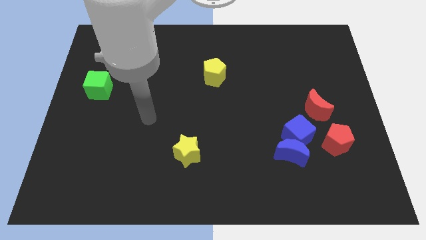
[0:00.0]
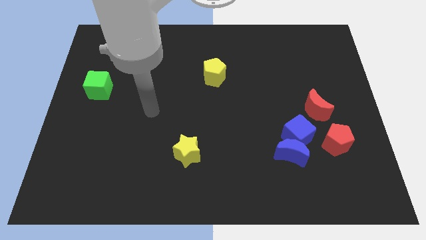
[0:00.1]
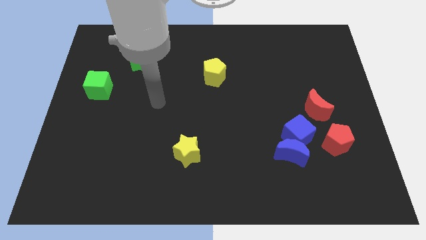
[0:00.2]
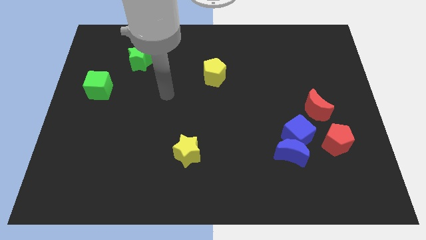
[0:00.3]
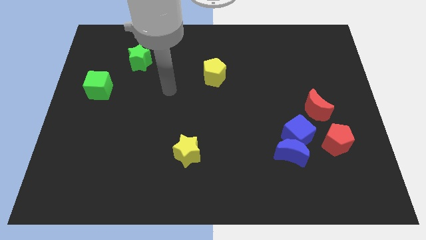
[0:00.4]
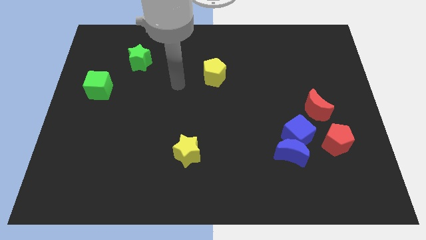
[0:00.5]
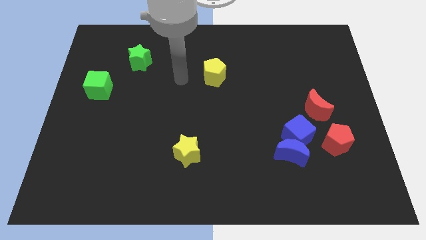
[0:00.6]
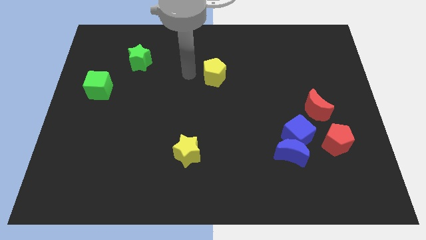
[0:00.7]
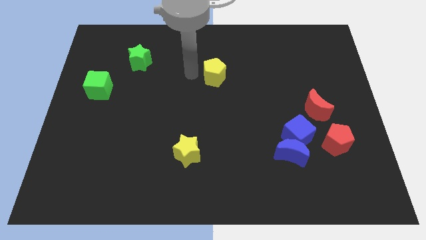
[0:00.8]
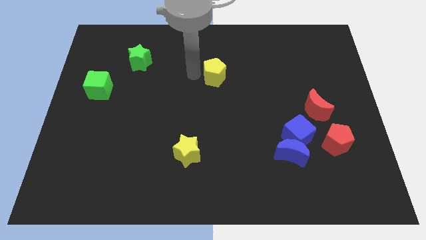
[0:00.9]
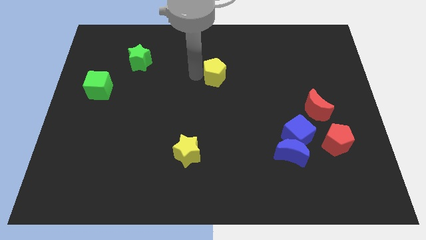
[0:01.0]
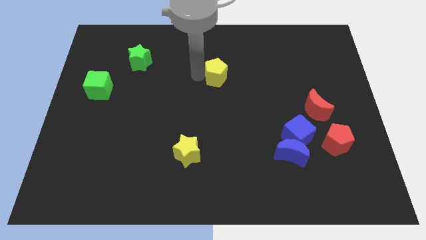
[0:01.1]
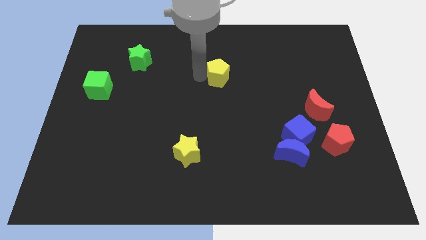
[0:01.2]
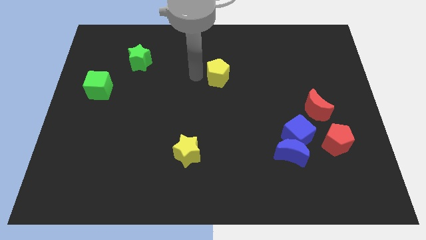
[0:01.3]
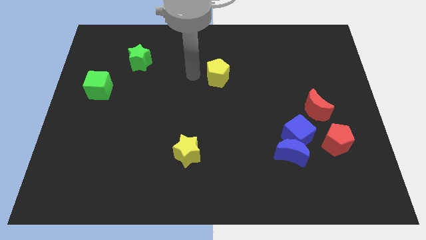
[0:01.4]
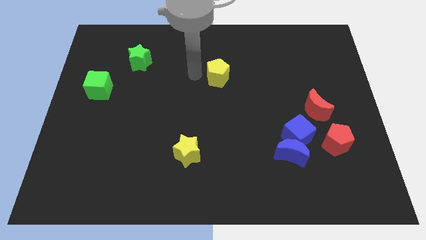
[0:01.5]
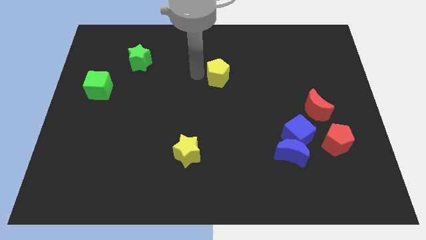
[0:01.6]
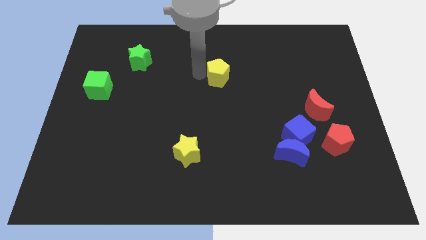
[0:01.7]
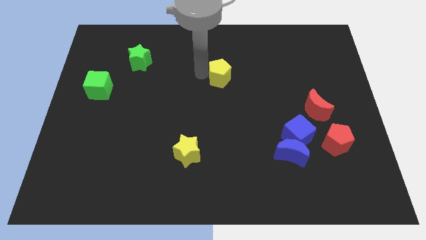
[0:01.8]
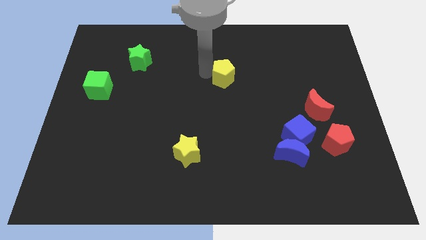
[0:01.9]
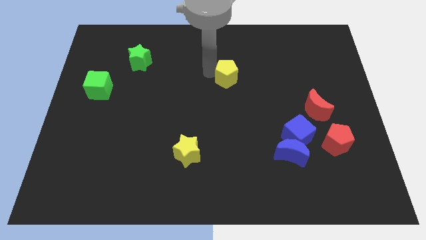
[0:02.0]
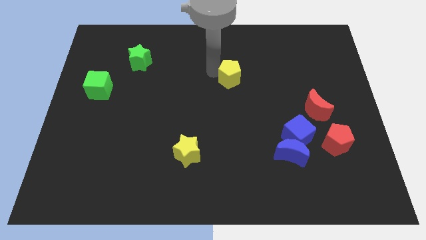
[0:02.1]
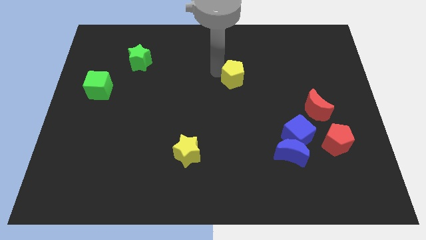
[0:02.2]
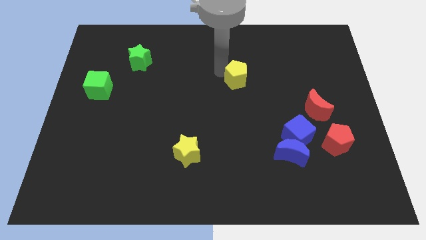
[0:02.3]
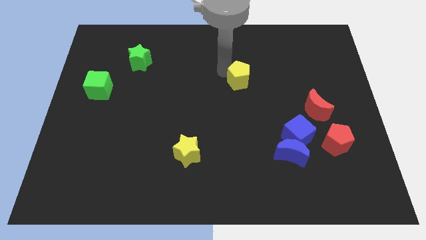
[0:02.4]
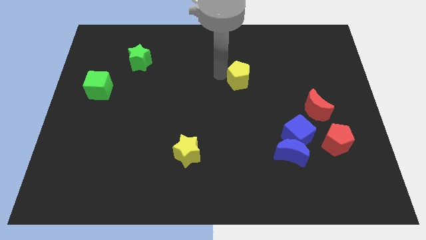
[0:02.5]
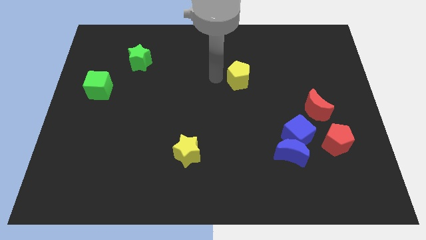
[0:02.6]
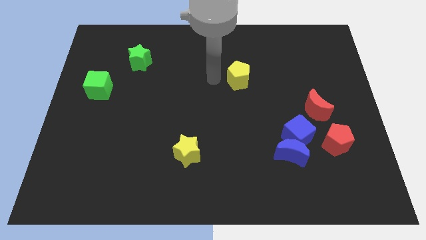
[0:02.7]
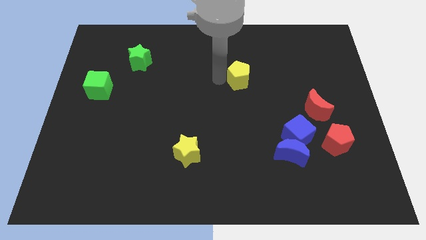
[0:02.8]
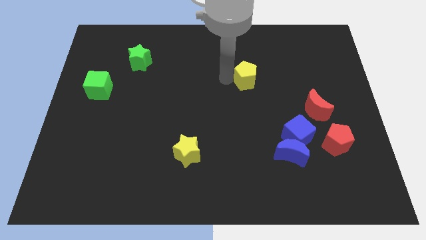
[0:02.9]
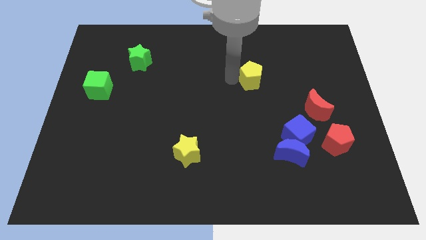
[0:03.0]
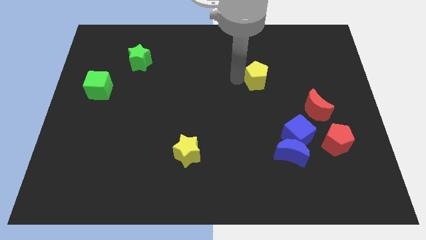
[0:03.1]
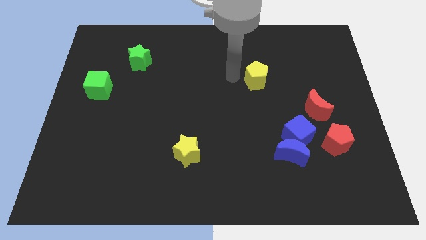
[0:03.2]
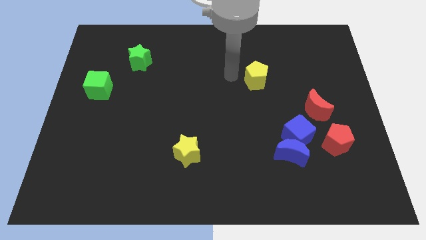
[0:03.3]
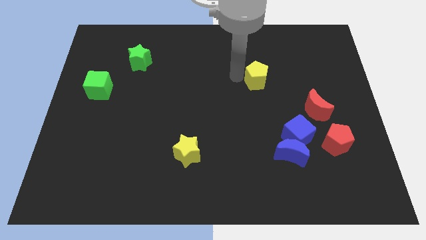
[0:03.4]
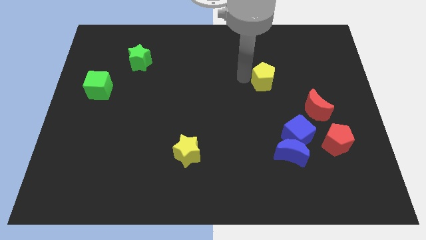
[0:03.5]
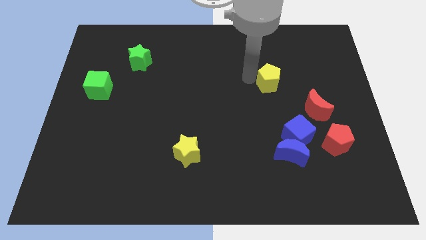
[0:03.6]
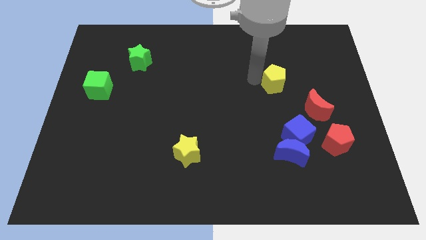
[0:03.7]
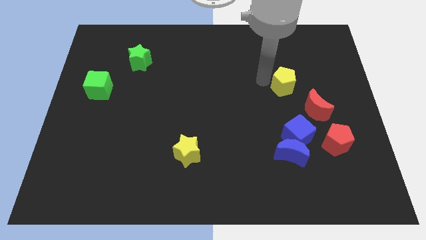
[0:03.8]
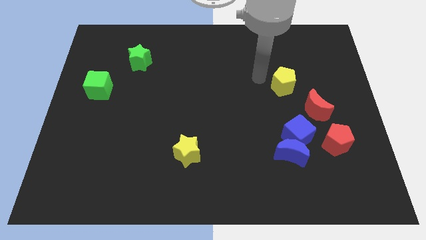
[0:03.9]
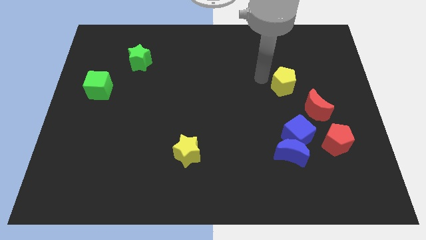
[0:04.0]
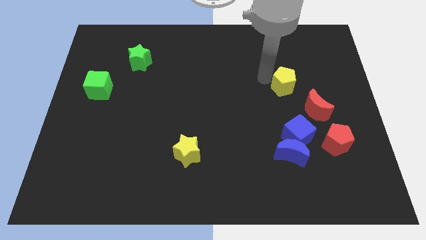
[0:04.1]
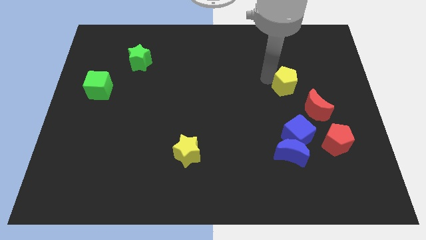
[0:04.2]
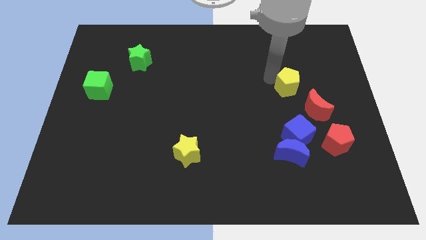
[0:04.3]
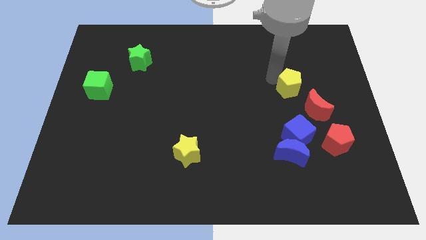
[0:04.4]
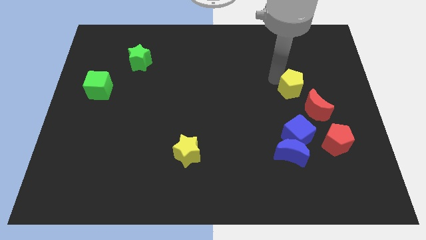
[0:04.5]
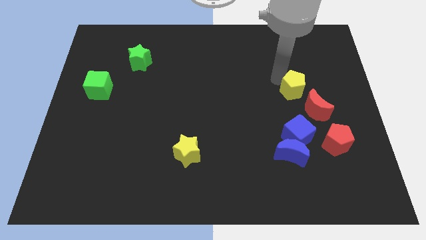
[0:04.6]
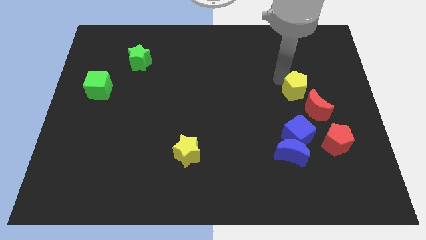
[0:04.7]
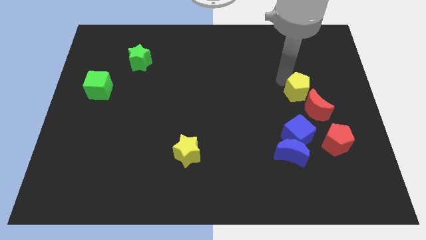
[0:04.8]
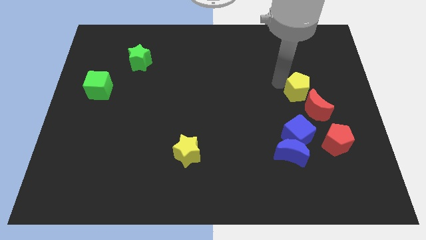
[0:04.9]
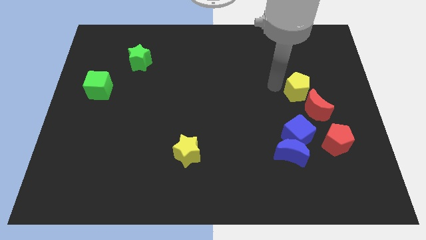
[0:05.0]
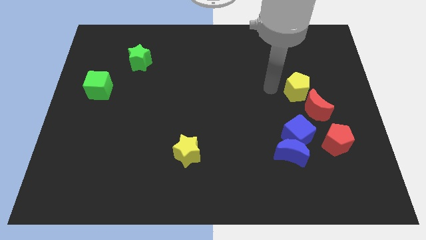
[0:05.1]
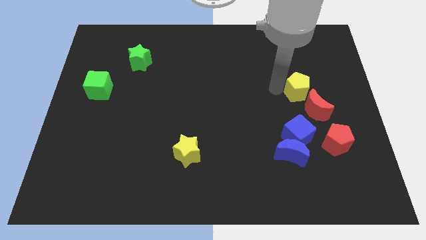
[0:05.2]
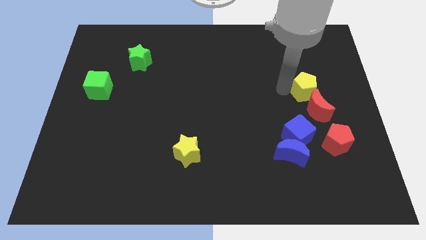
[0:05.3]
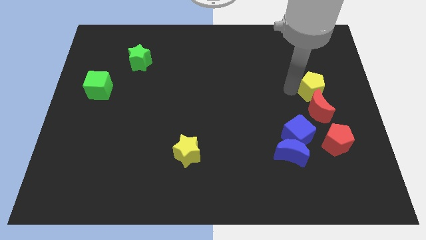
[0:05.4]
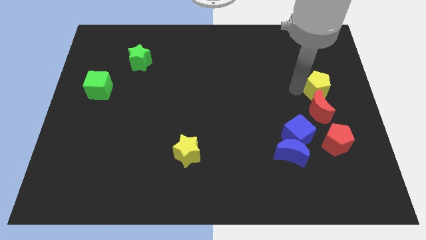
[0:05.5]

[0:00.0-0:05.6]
slide the yellow pentagon to the right side of the board
